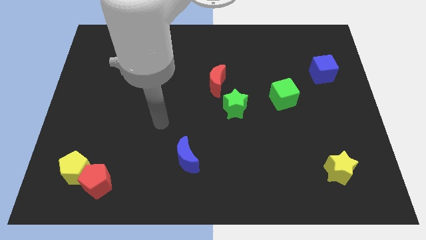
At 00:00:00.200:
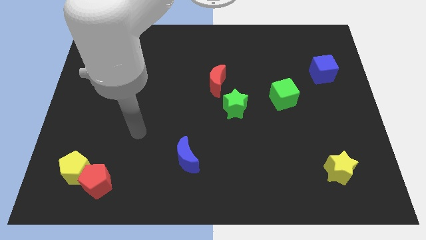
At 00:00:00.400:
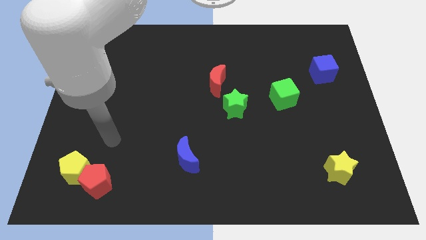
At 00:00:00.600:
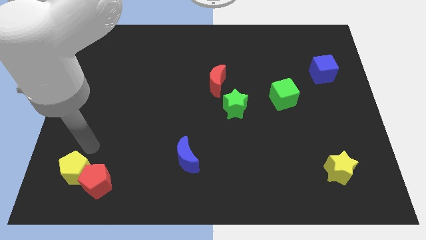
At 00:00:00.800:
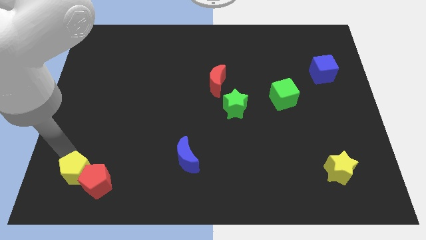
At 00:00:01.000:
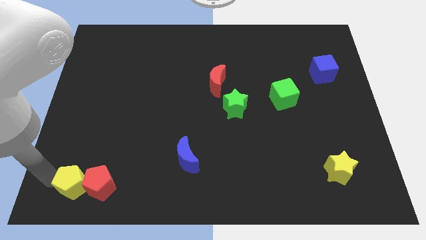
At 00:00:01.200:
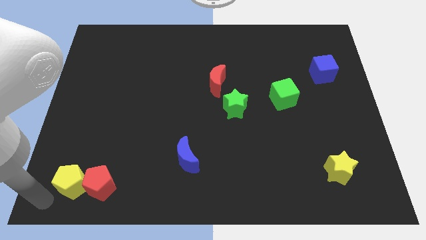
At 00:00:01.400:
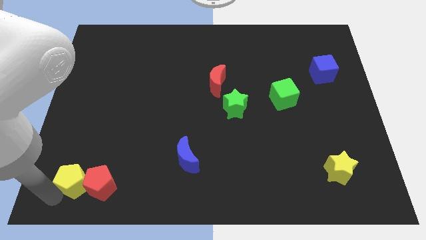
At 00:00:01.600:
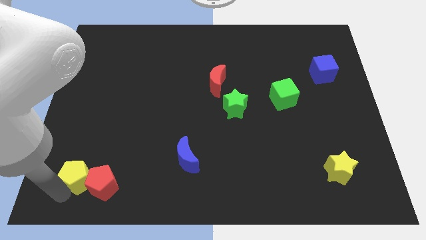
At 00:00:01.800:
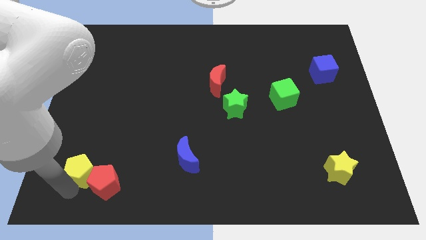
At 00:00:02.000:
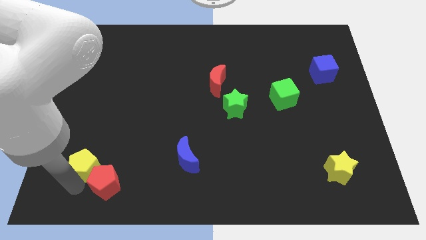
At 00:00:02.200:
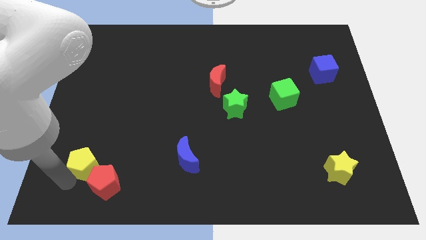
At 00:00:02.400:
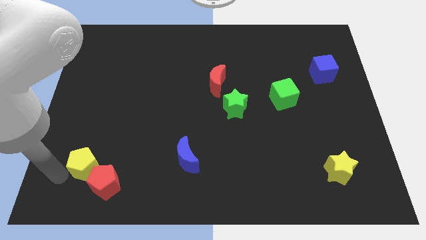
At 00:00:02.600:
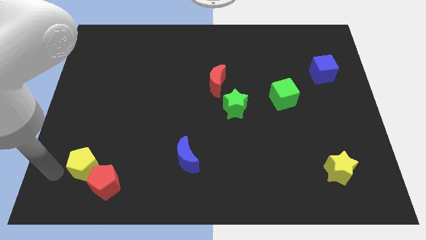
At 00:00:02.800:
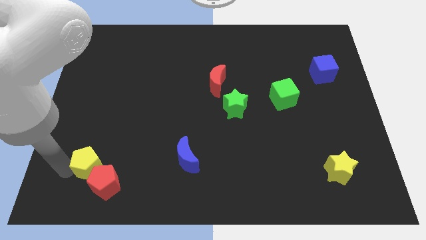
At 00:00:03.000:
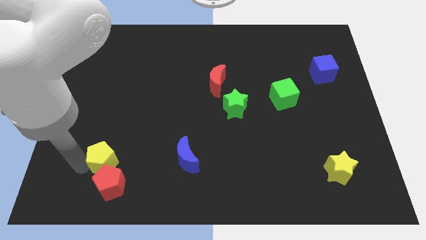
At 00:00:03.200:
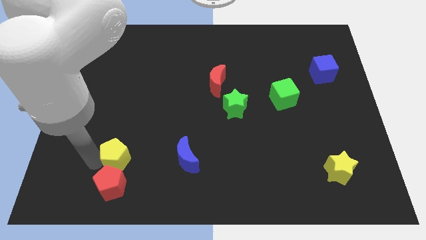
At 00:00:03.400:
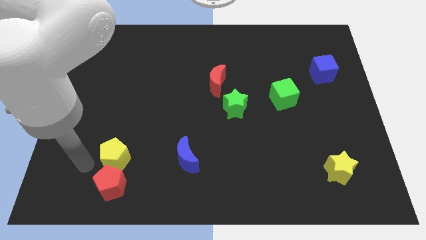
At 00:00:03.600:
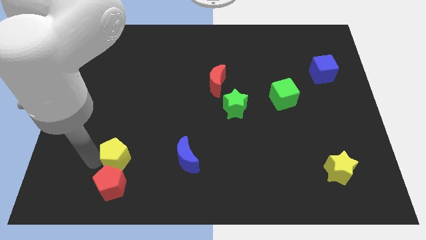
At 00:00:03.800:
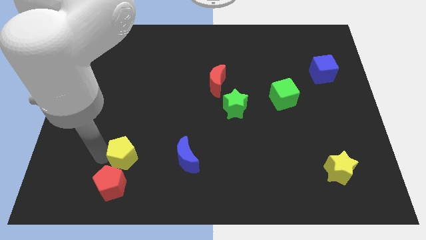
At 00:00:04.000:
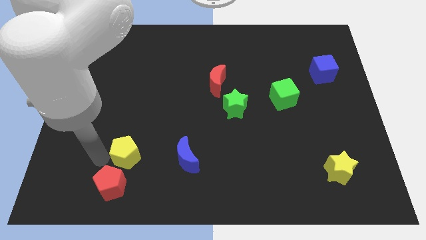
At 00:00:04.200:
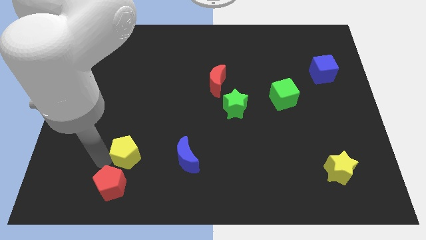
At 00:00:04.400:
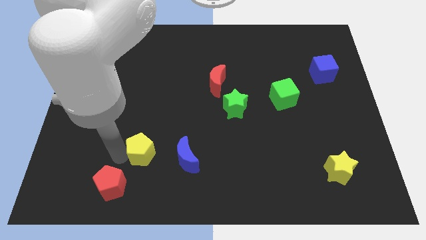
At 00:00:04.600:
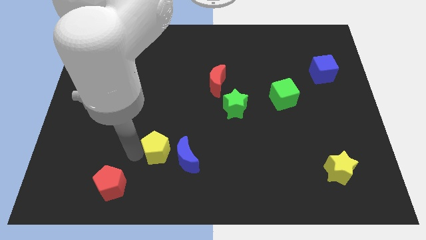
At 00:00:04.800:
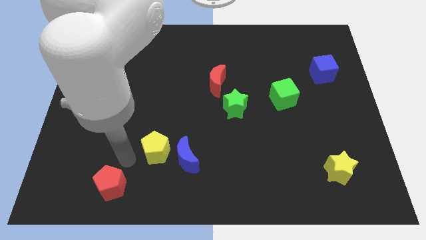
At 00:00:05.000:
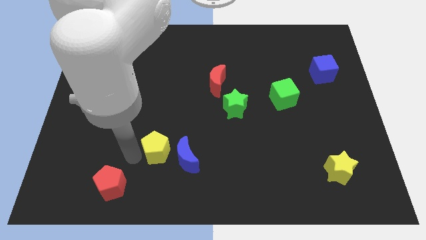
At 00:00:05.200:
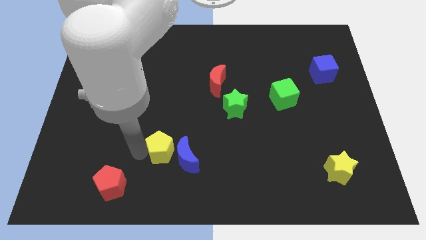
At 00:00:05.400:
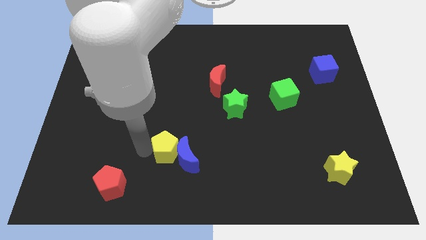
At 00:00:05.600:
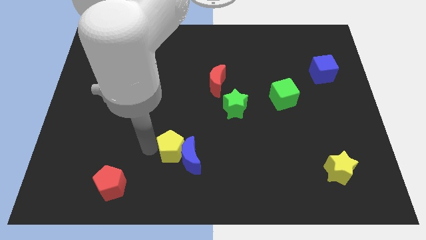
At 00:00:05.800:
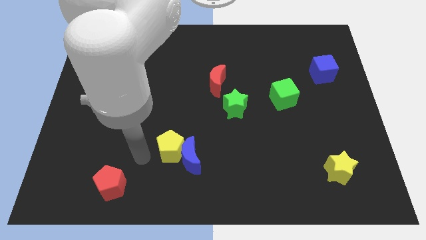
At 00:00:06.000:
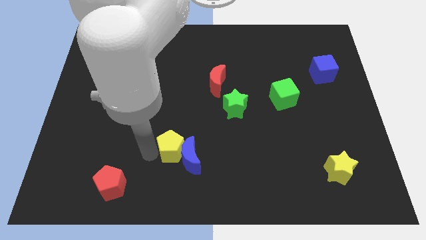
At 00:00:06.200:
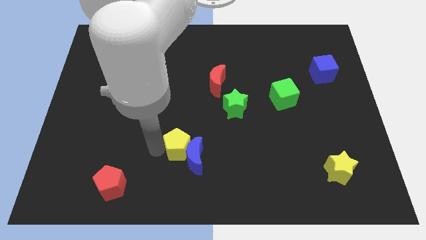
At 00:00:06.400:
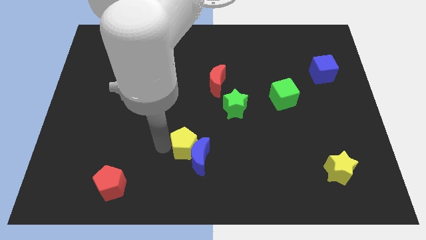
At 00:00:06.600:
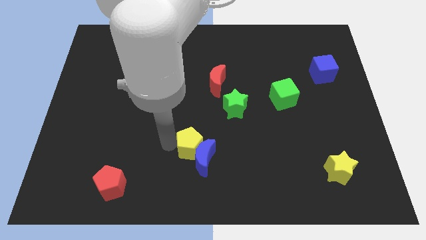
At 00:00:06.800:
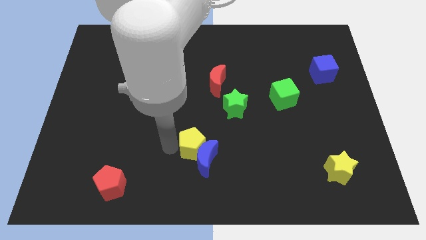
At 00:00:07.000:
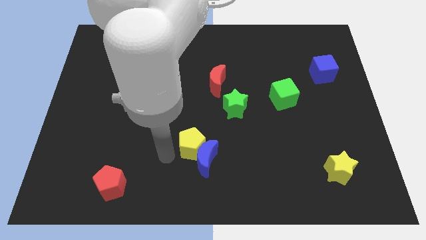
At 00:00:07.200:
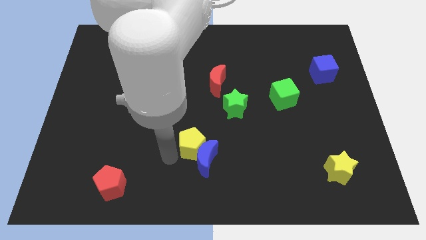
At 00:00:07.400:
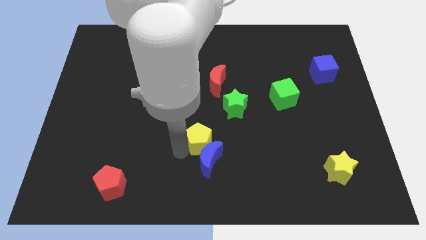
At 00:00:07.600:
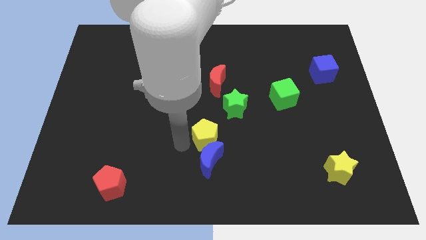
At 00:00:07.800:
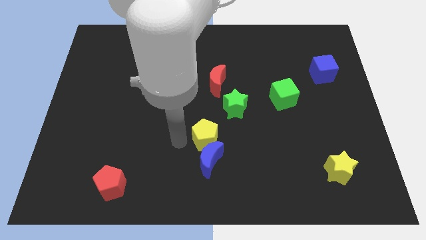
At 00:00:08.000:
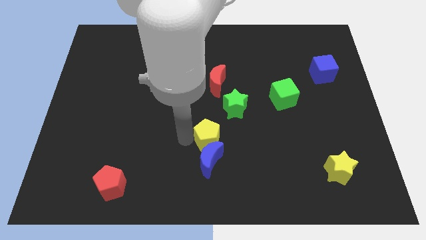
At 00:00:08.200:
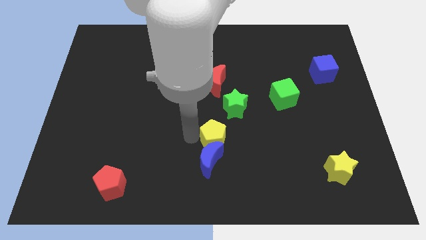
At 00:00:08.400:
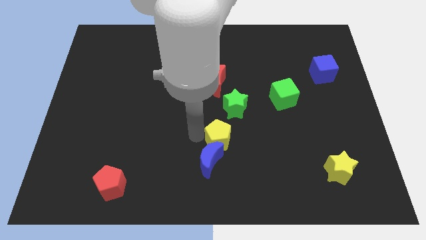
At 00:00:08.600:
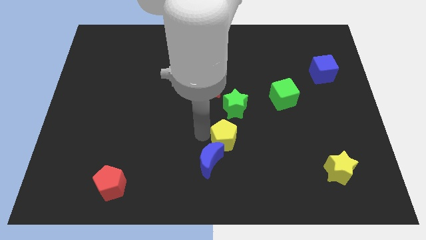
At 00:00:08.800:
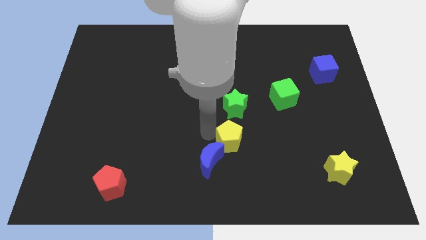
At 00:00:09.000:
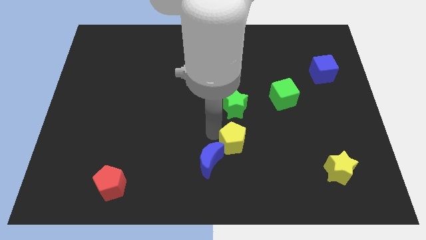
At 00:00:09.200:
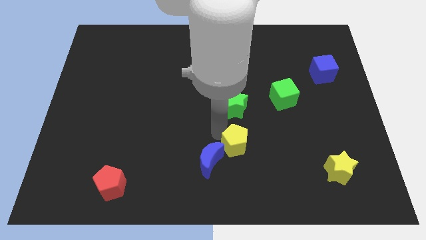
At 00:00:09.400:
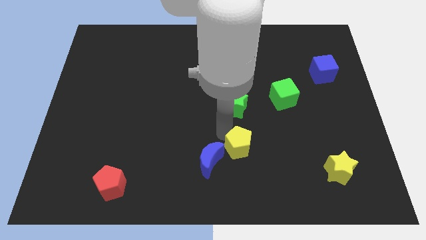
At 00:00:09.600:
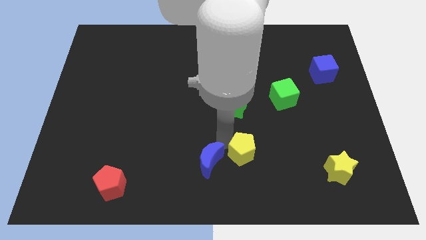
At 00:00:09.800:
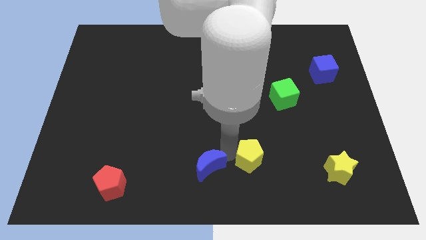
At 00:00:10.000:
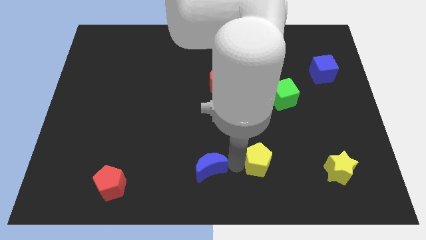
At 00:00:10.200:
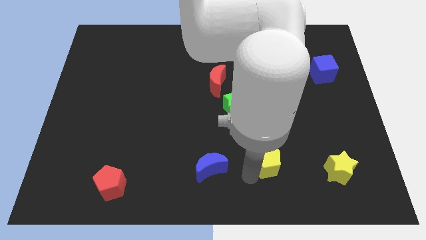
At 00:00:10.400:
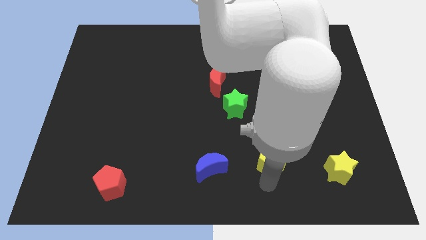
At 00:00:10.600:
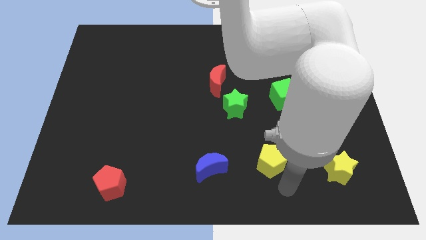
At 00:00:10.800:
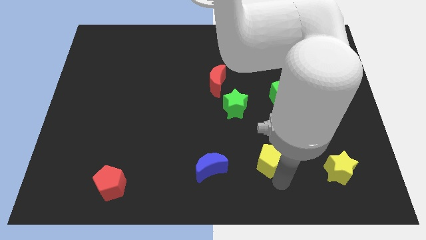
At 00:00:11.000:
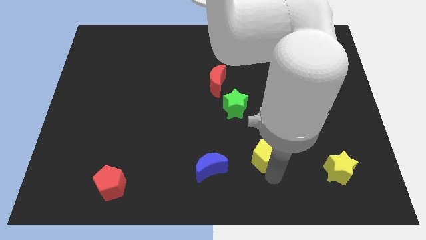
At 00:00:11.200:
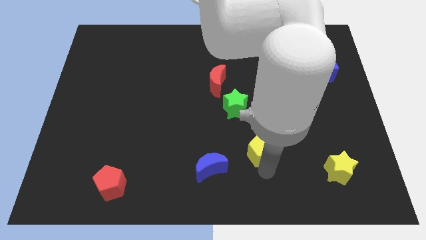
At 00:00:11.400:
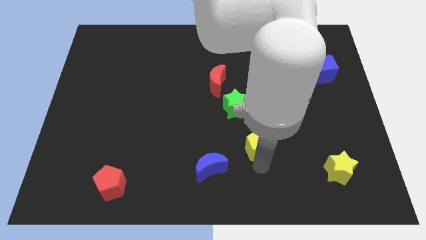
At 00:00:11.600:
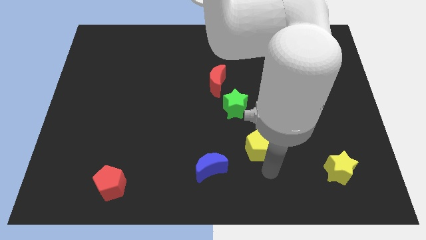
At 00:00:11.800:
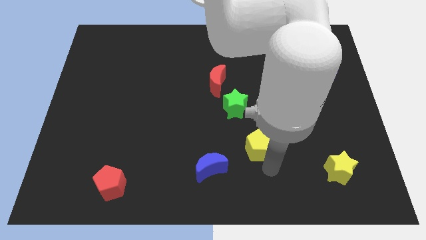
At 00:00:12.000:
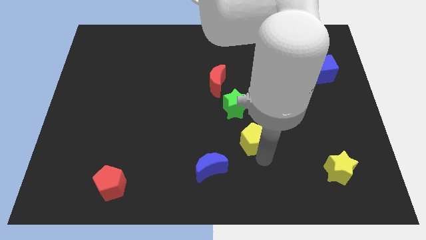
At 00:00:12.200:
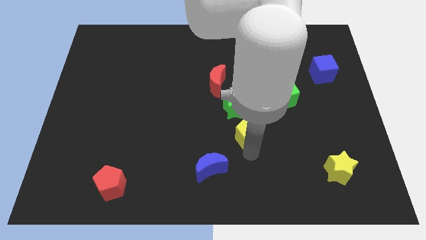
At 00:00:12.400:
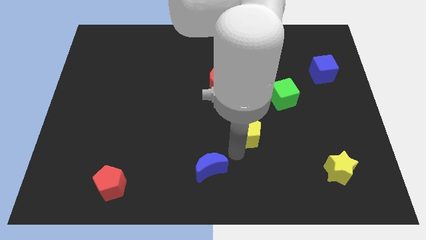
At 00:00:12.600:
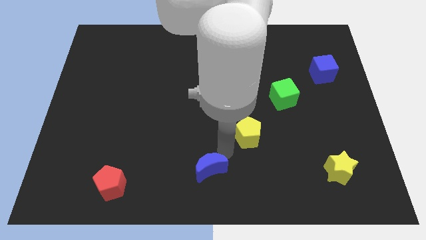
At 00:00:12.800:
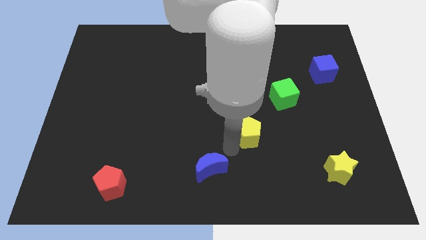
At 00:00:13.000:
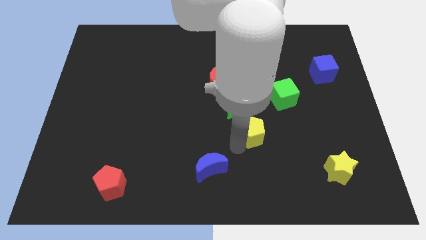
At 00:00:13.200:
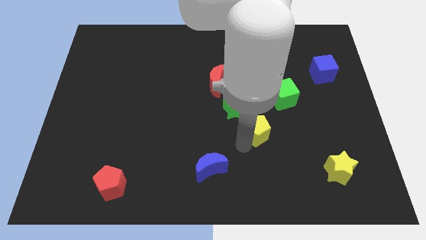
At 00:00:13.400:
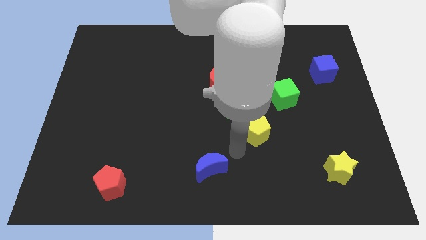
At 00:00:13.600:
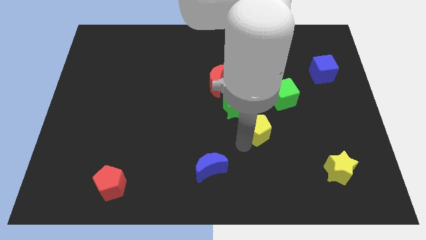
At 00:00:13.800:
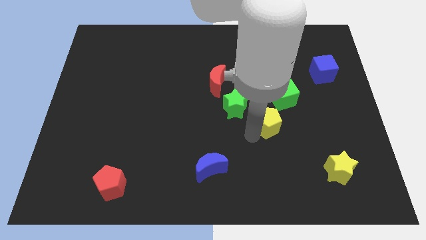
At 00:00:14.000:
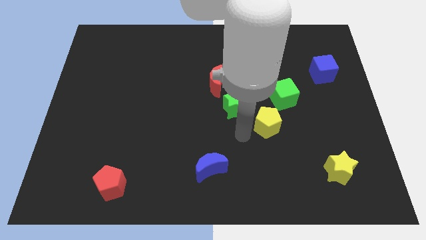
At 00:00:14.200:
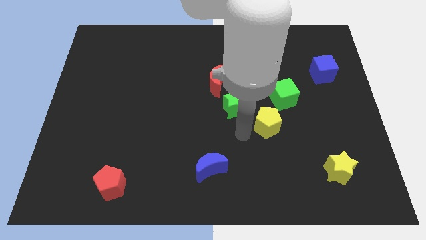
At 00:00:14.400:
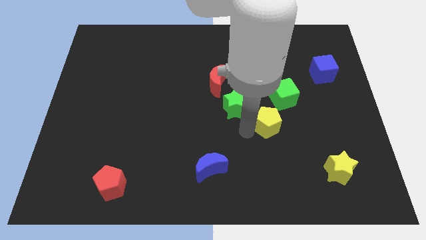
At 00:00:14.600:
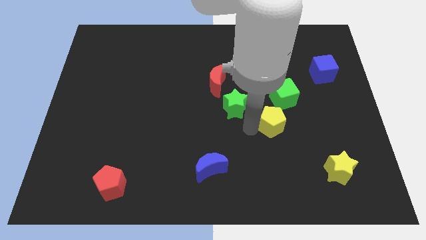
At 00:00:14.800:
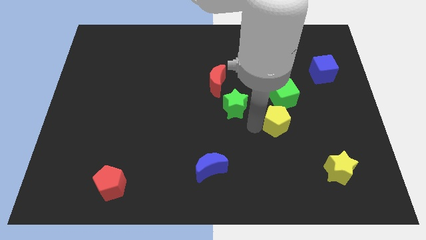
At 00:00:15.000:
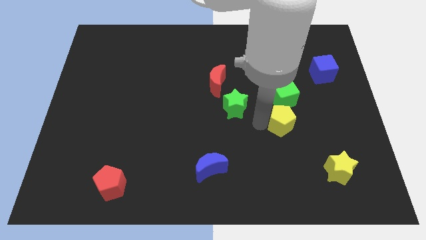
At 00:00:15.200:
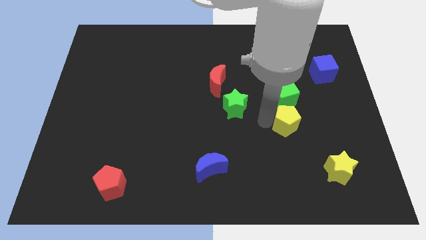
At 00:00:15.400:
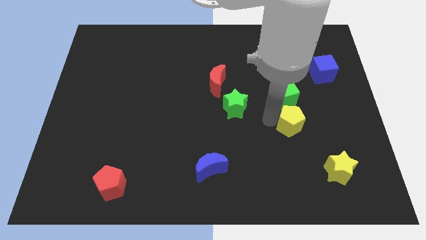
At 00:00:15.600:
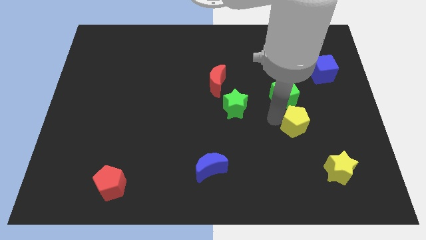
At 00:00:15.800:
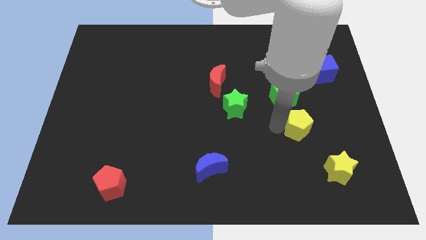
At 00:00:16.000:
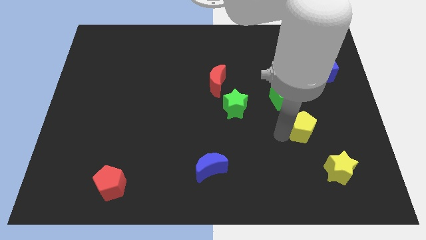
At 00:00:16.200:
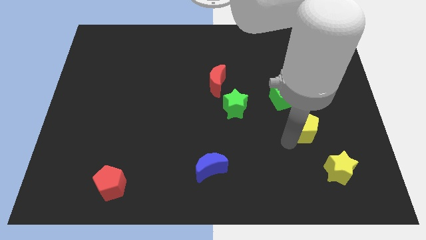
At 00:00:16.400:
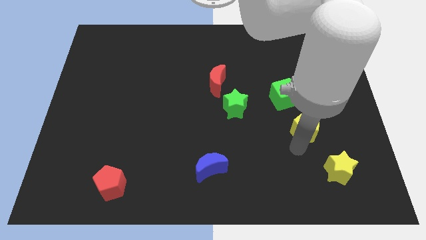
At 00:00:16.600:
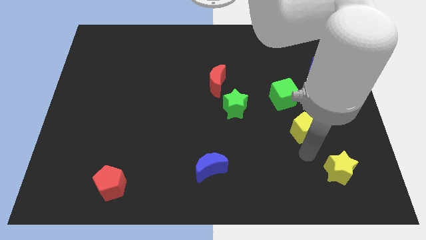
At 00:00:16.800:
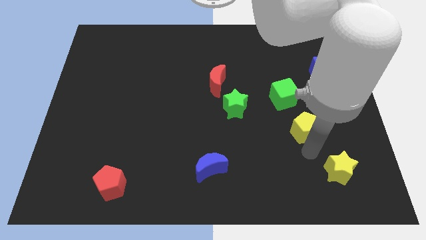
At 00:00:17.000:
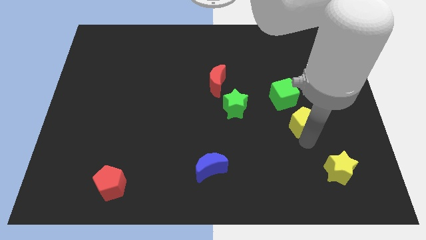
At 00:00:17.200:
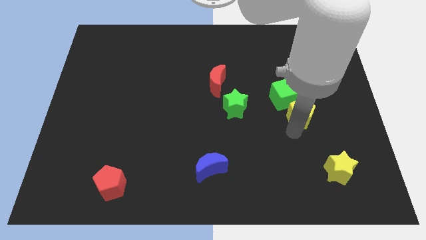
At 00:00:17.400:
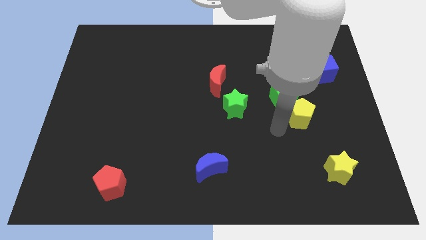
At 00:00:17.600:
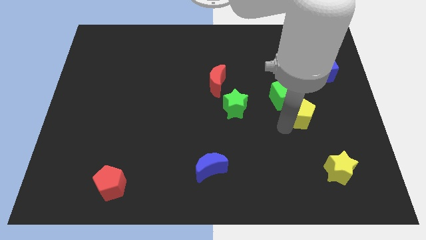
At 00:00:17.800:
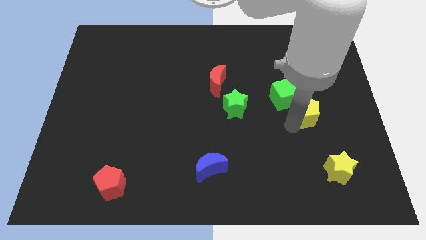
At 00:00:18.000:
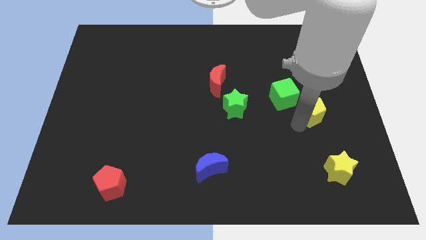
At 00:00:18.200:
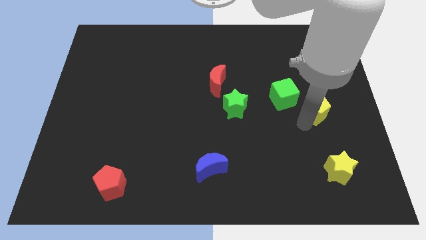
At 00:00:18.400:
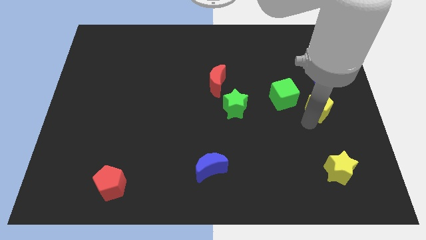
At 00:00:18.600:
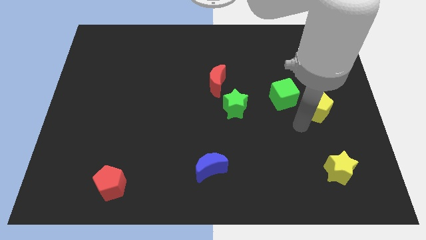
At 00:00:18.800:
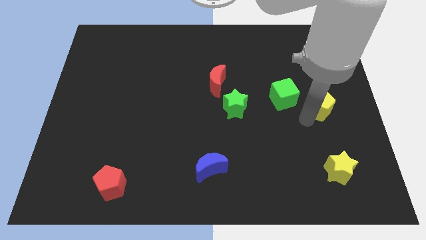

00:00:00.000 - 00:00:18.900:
push the yellow pentagon to the right side of the board
